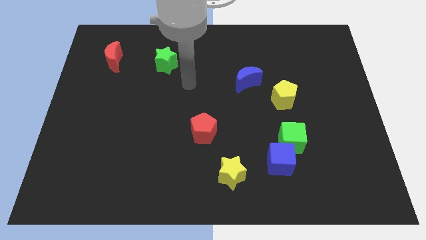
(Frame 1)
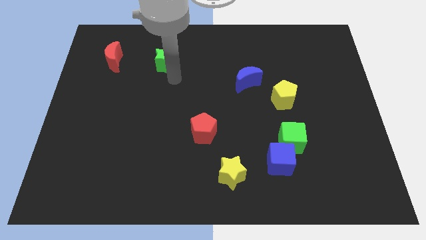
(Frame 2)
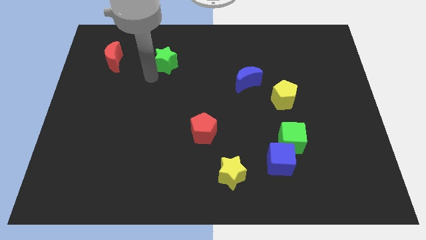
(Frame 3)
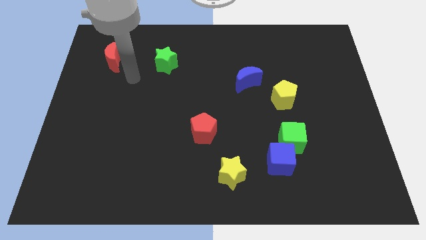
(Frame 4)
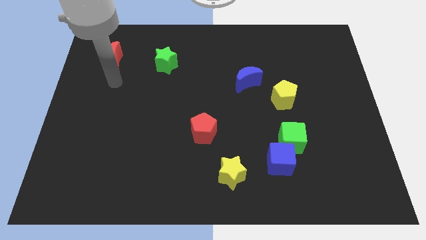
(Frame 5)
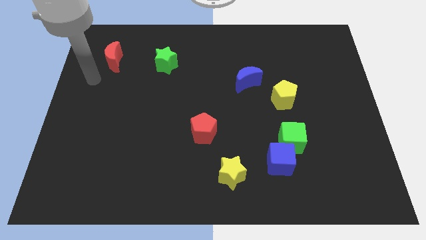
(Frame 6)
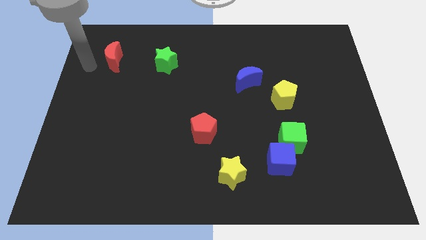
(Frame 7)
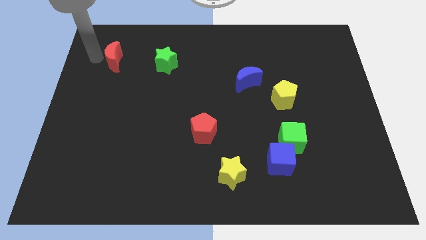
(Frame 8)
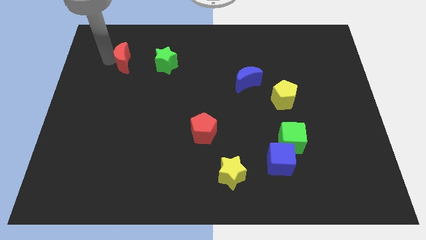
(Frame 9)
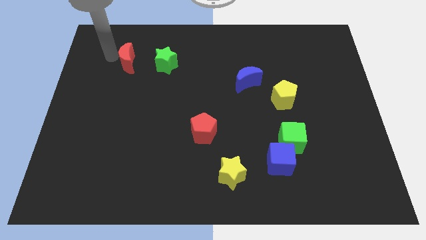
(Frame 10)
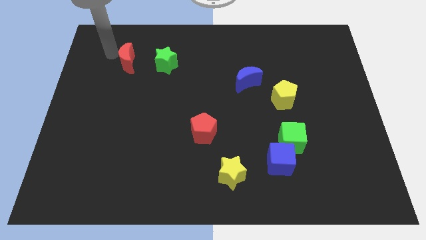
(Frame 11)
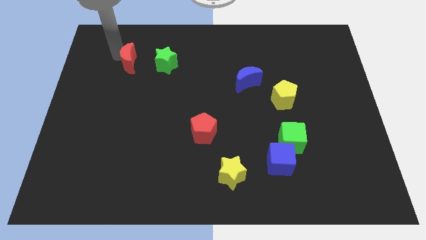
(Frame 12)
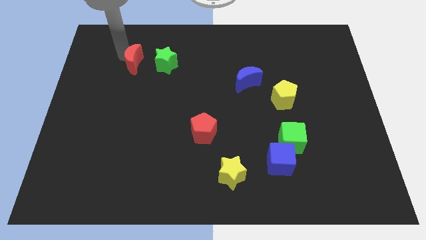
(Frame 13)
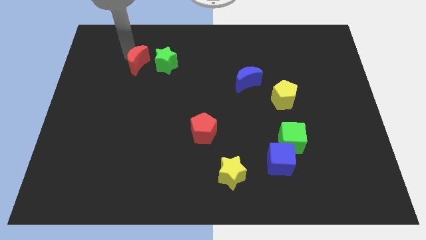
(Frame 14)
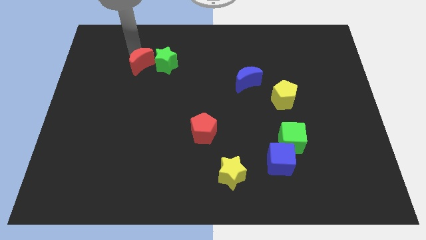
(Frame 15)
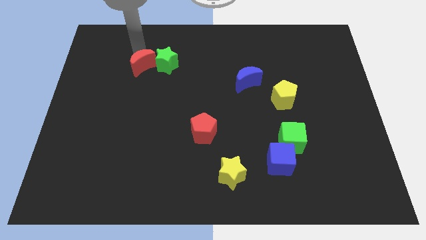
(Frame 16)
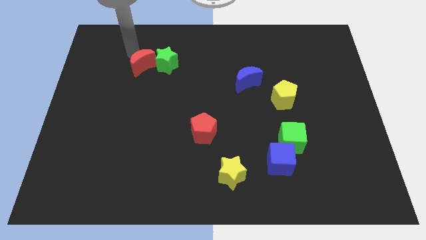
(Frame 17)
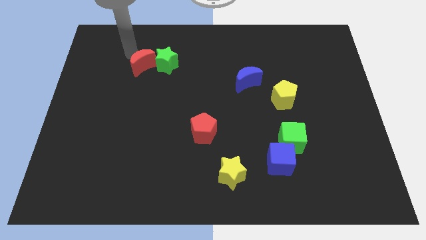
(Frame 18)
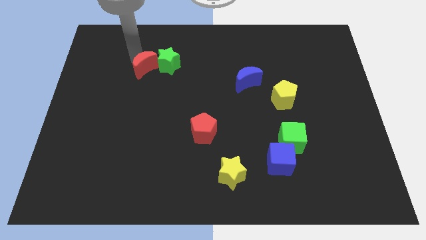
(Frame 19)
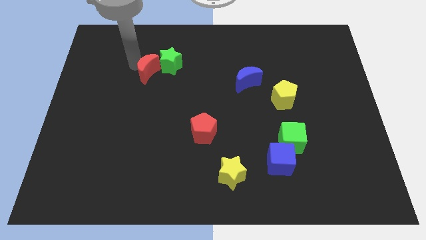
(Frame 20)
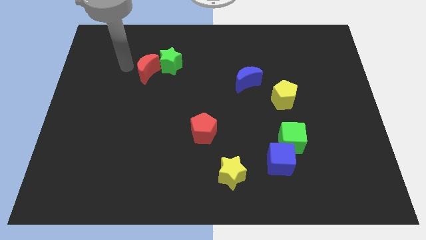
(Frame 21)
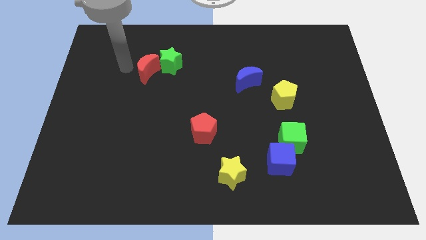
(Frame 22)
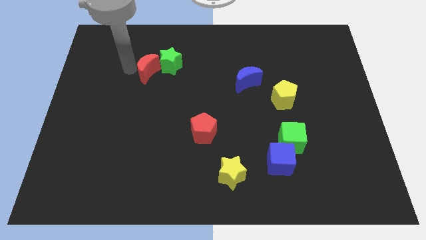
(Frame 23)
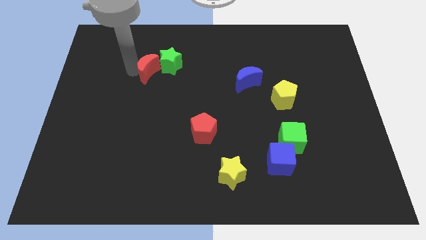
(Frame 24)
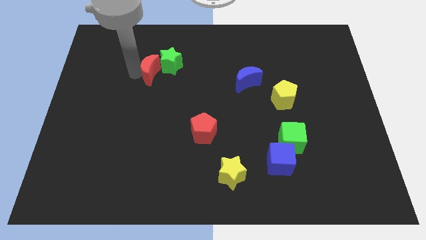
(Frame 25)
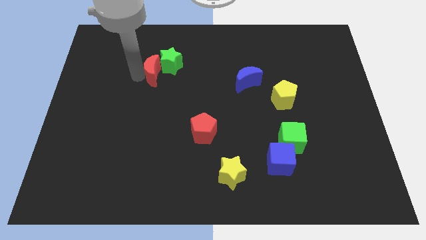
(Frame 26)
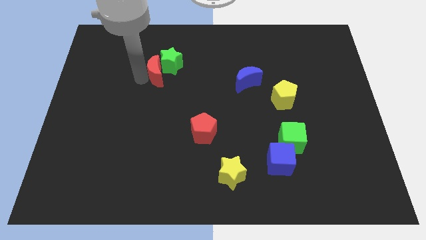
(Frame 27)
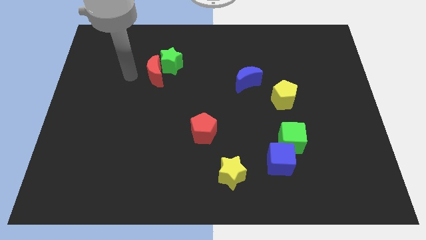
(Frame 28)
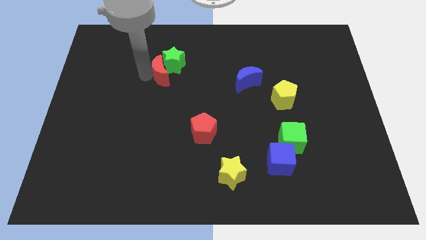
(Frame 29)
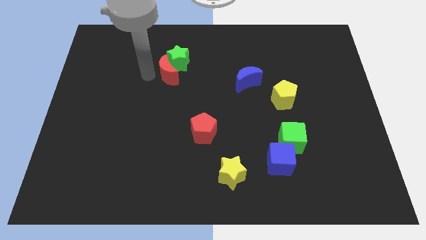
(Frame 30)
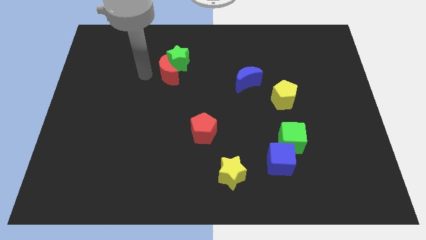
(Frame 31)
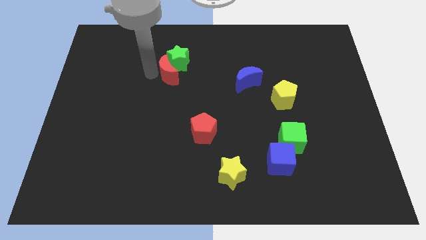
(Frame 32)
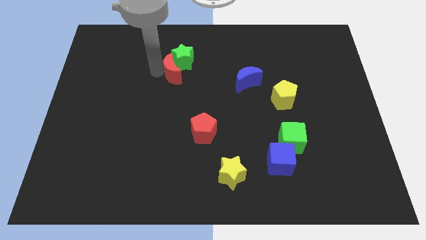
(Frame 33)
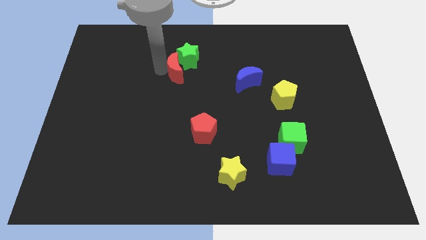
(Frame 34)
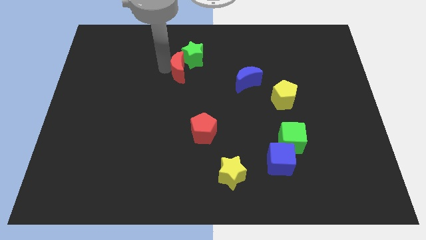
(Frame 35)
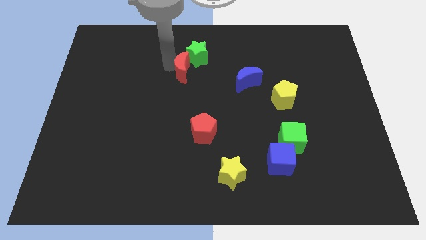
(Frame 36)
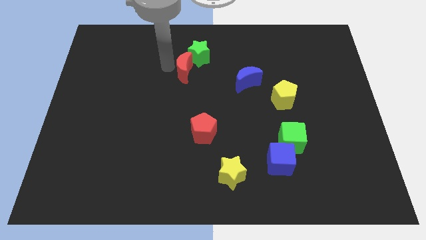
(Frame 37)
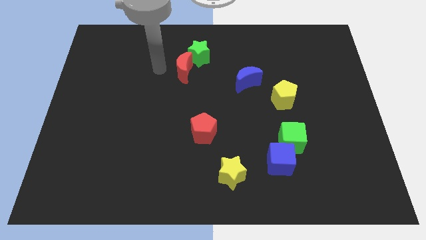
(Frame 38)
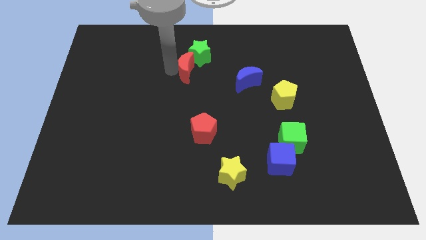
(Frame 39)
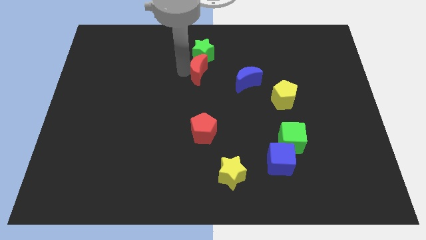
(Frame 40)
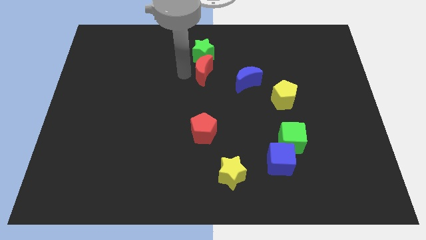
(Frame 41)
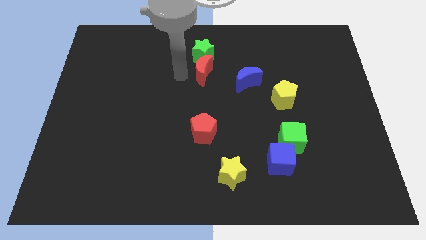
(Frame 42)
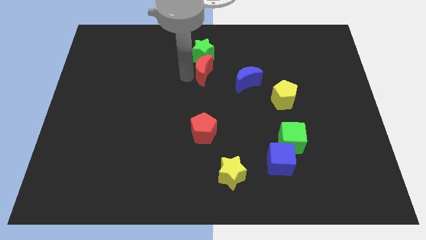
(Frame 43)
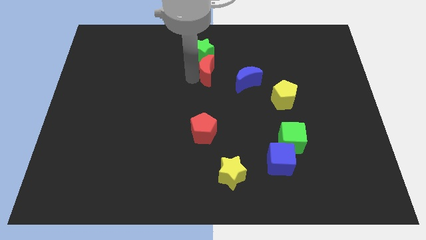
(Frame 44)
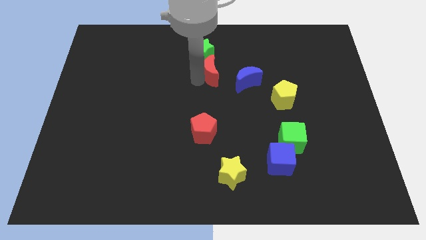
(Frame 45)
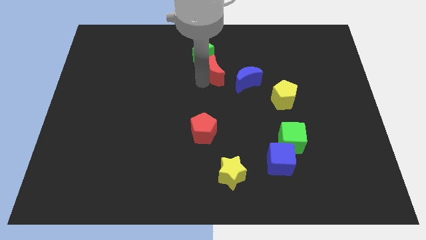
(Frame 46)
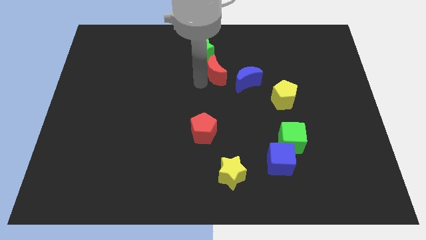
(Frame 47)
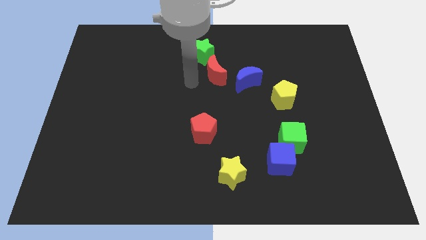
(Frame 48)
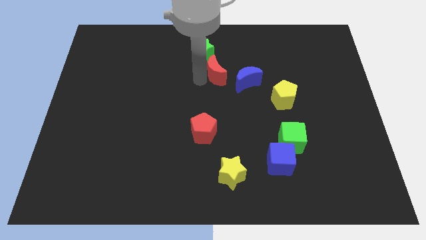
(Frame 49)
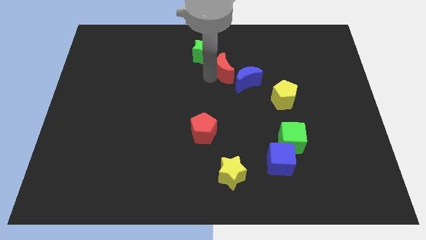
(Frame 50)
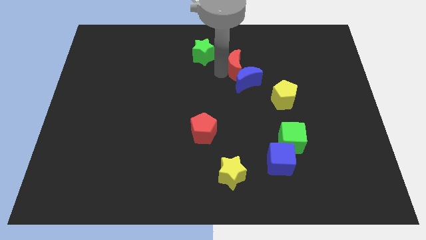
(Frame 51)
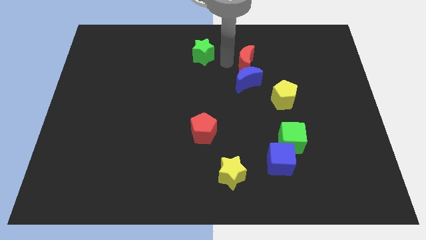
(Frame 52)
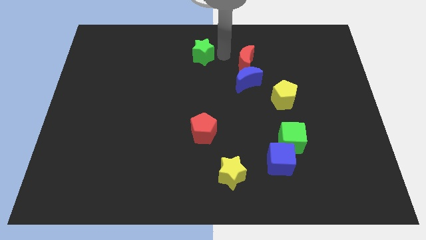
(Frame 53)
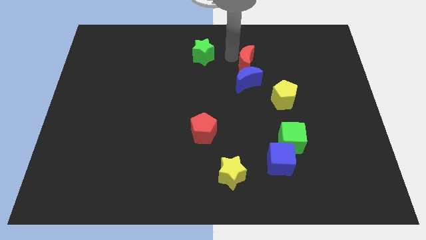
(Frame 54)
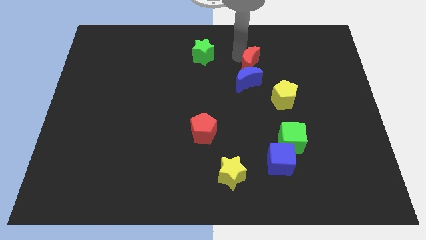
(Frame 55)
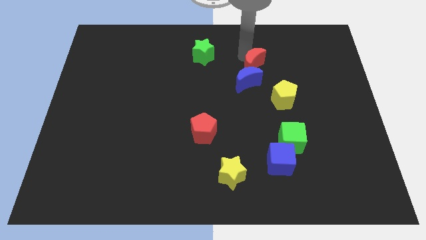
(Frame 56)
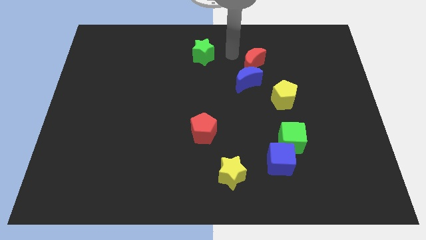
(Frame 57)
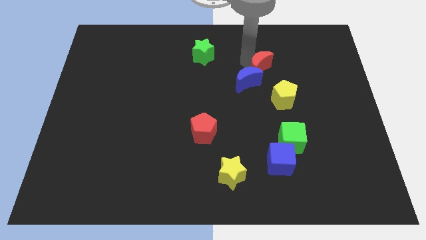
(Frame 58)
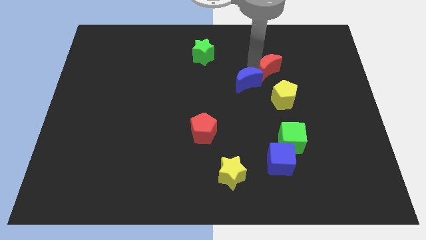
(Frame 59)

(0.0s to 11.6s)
push the red moon to the right of the blue moon

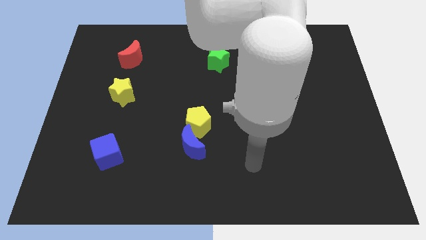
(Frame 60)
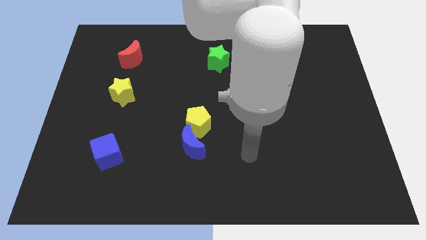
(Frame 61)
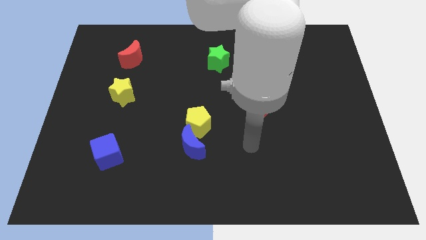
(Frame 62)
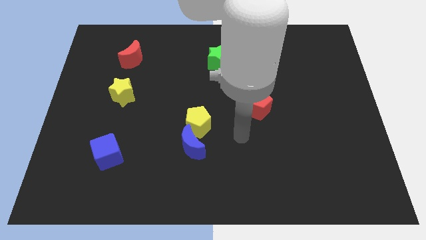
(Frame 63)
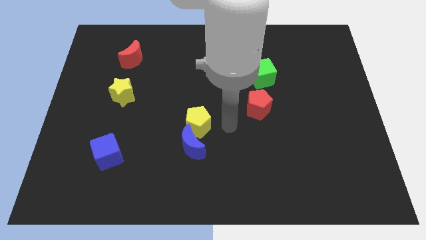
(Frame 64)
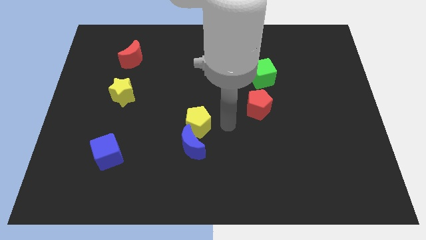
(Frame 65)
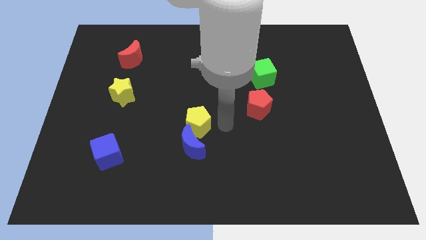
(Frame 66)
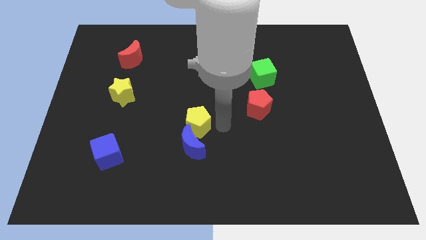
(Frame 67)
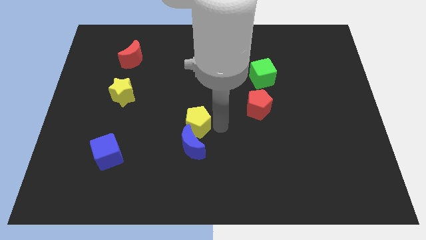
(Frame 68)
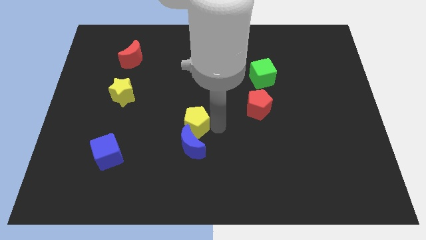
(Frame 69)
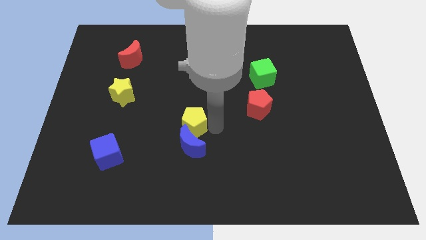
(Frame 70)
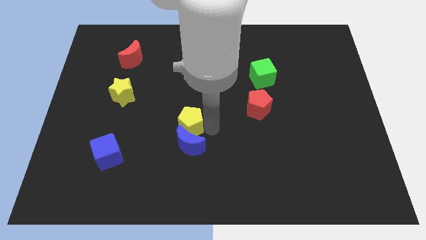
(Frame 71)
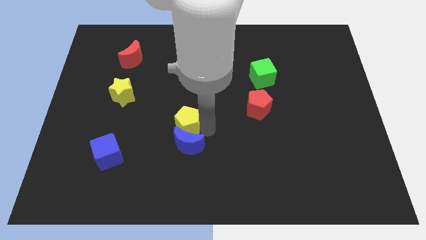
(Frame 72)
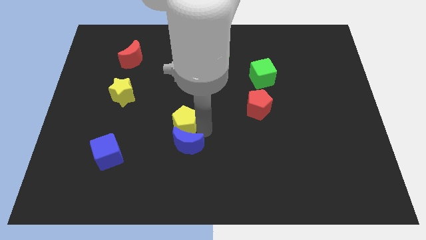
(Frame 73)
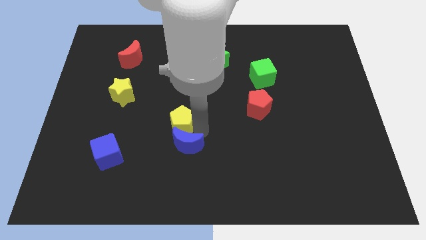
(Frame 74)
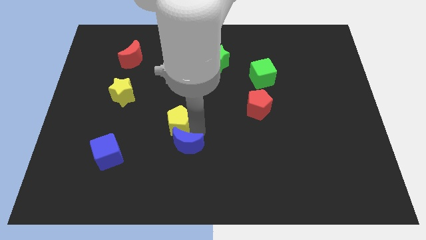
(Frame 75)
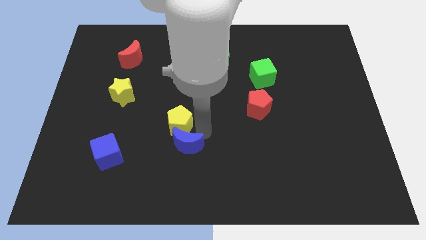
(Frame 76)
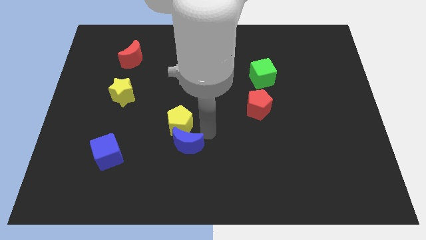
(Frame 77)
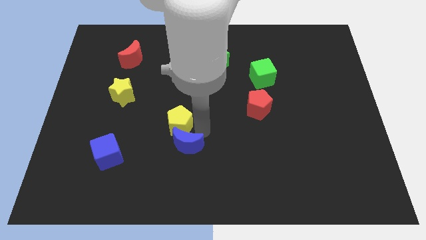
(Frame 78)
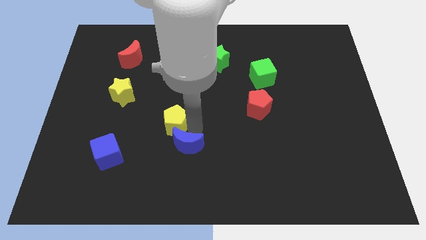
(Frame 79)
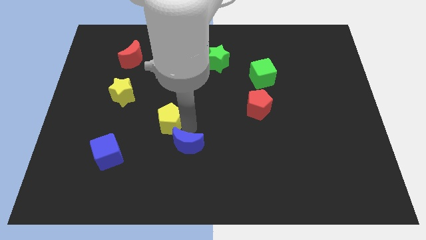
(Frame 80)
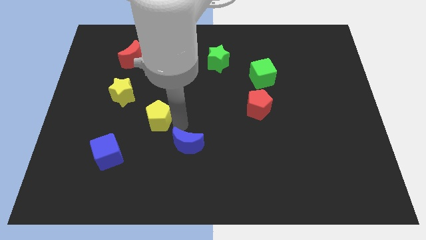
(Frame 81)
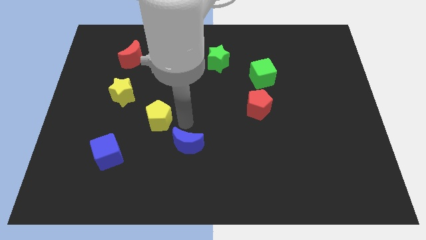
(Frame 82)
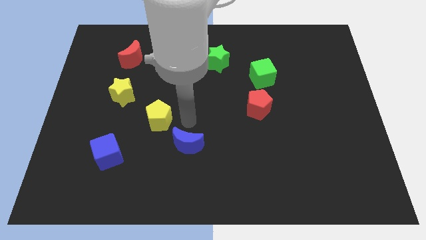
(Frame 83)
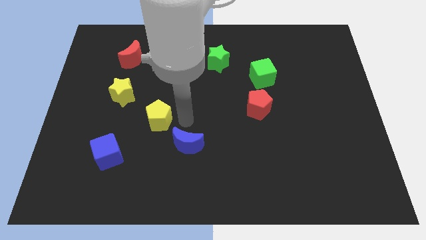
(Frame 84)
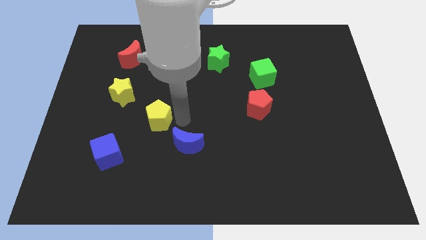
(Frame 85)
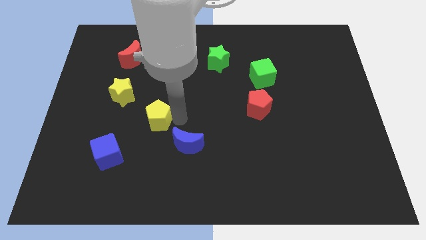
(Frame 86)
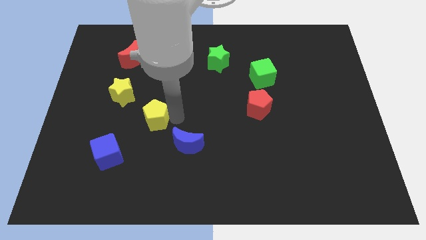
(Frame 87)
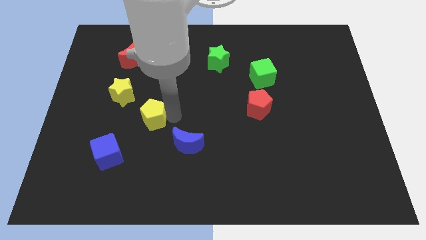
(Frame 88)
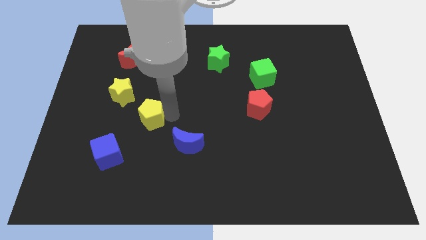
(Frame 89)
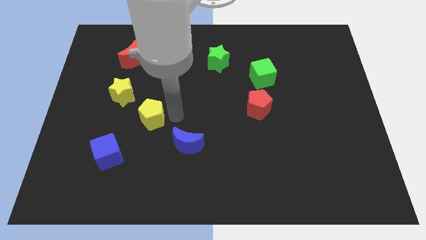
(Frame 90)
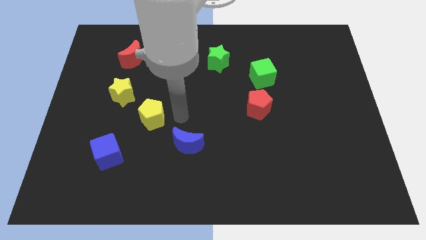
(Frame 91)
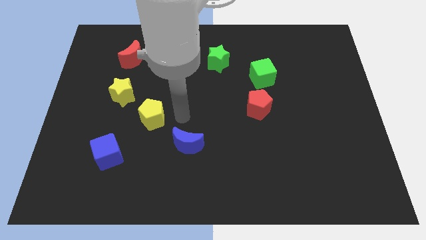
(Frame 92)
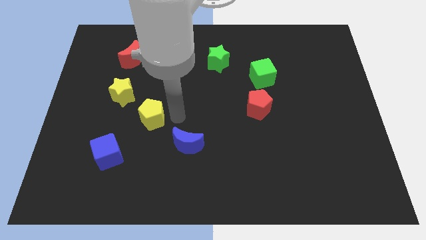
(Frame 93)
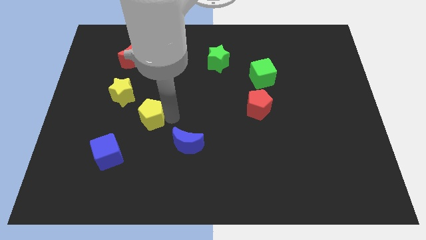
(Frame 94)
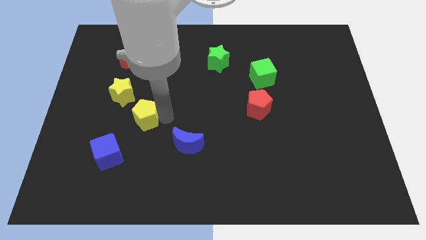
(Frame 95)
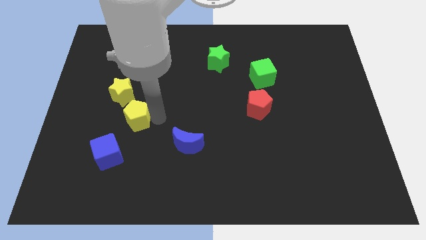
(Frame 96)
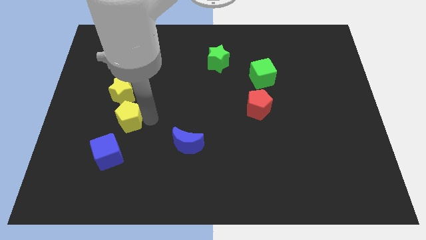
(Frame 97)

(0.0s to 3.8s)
move the yellow pentagon above the blue cube
